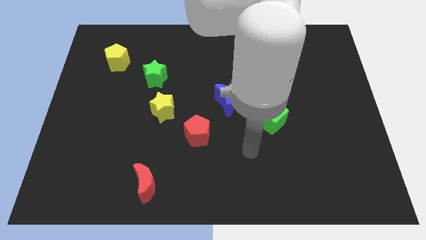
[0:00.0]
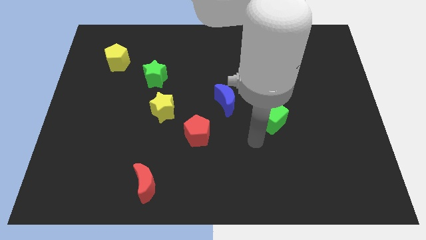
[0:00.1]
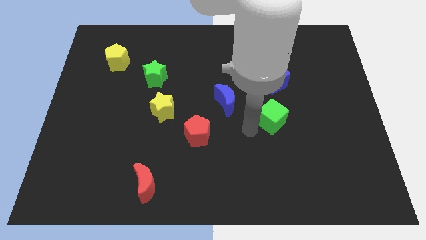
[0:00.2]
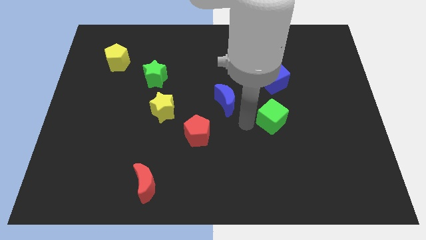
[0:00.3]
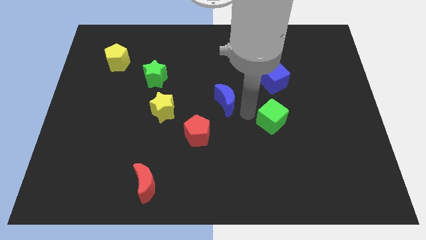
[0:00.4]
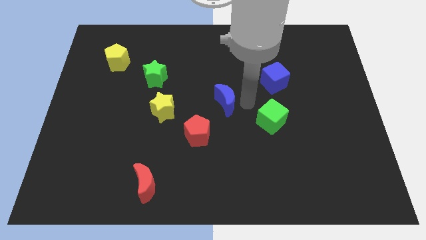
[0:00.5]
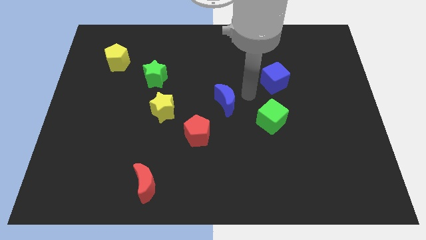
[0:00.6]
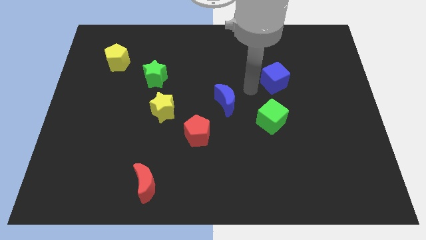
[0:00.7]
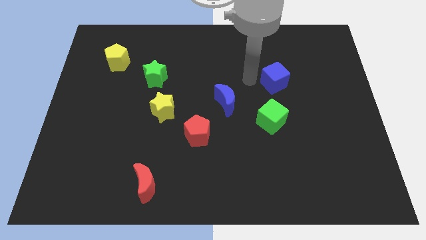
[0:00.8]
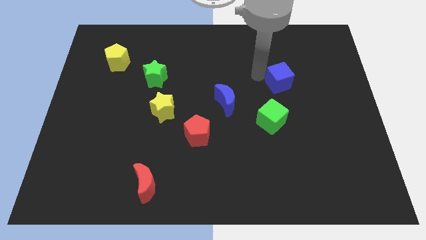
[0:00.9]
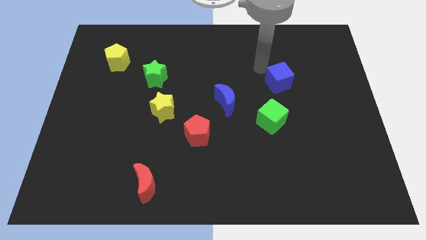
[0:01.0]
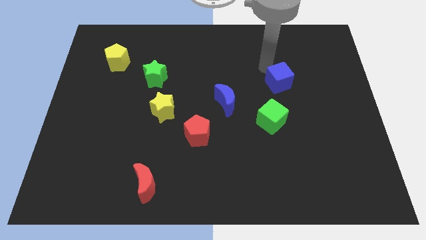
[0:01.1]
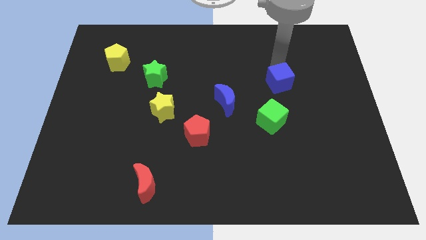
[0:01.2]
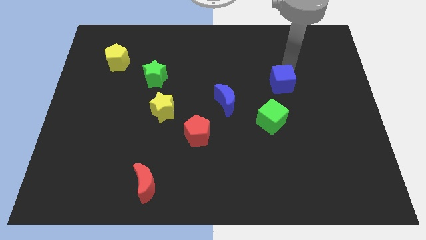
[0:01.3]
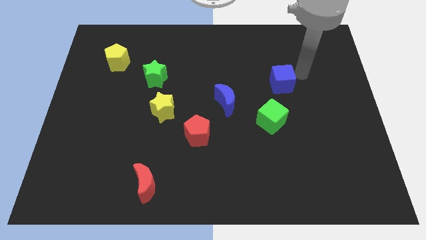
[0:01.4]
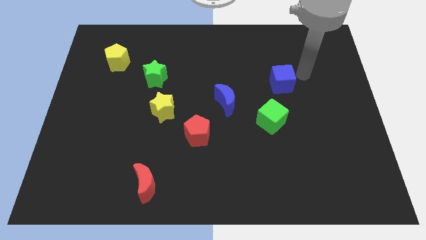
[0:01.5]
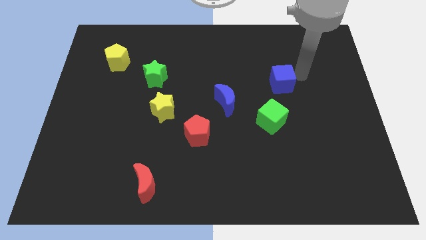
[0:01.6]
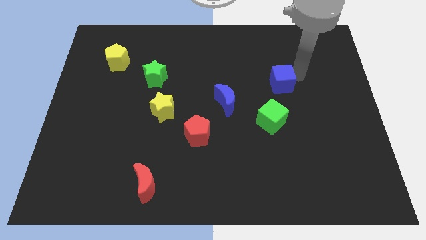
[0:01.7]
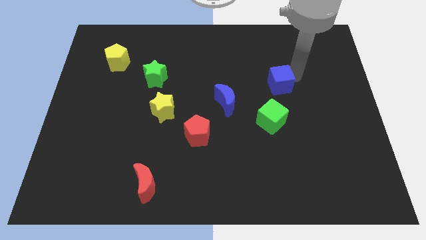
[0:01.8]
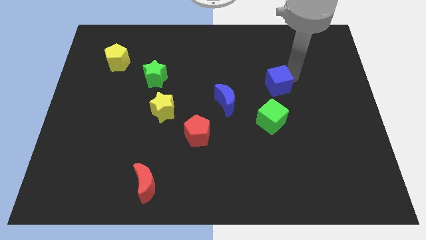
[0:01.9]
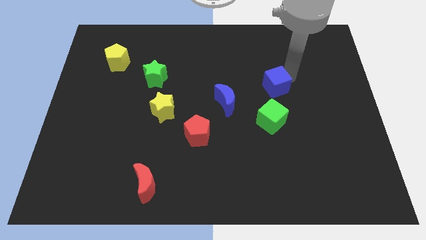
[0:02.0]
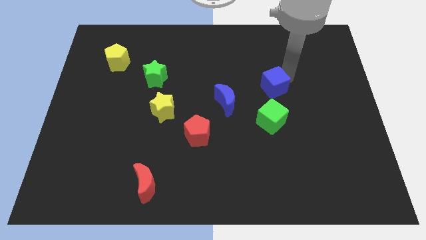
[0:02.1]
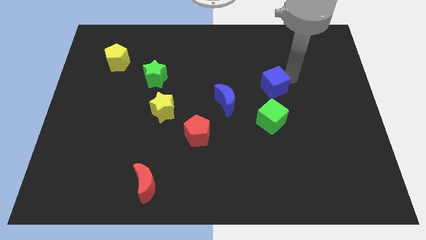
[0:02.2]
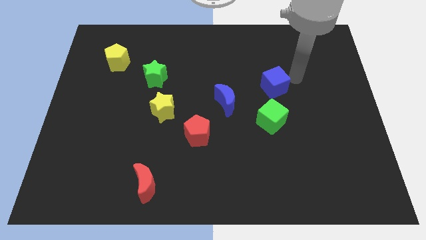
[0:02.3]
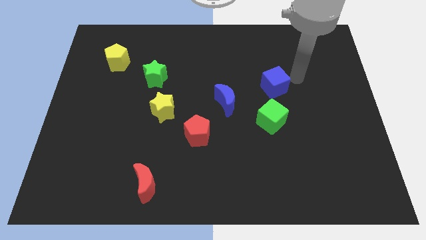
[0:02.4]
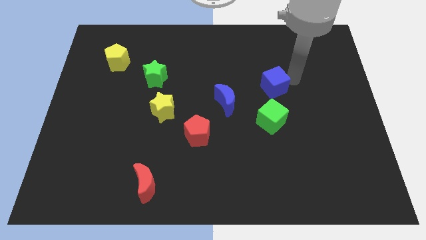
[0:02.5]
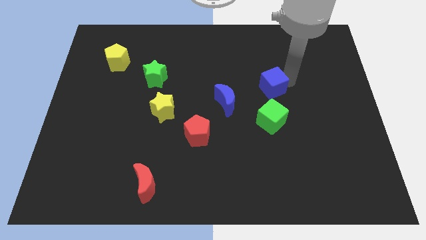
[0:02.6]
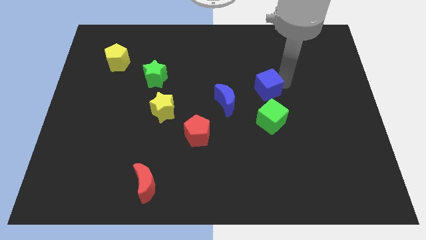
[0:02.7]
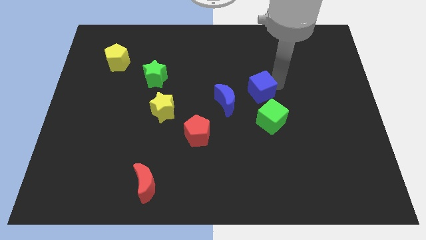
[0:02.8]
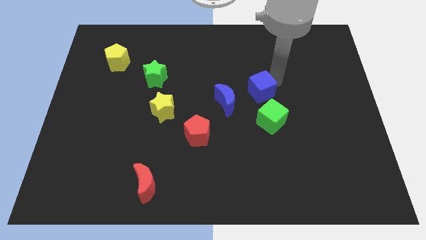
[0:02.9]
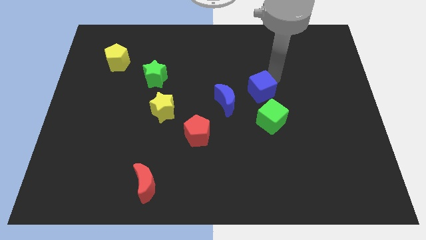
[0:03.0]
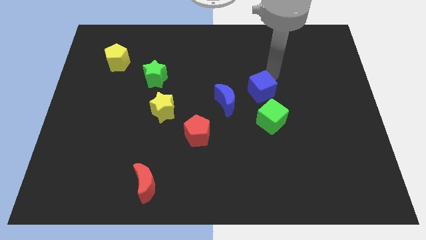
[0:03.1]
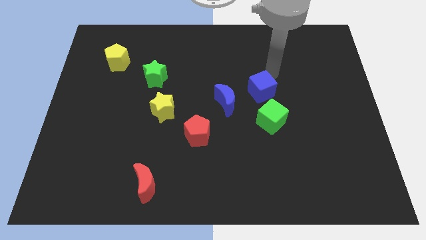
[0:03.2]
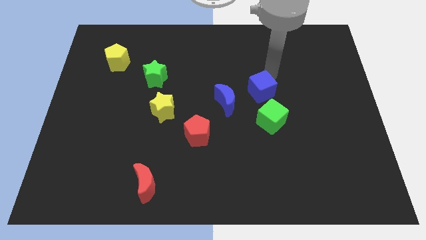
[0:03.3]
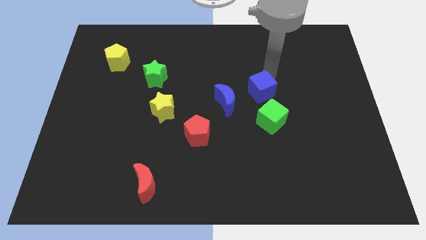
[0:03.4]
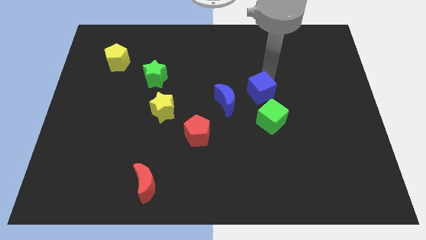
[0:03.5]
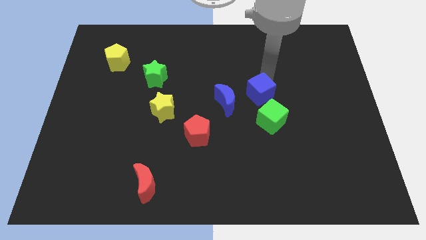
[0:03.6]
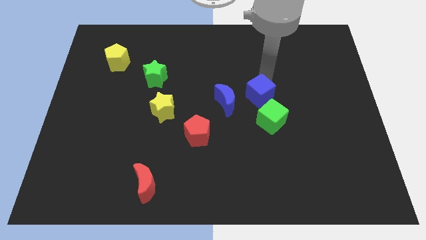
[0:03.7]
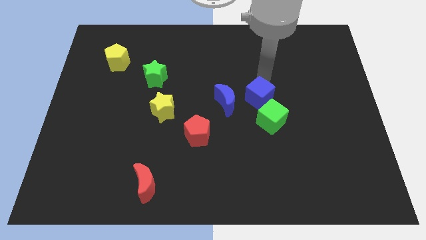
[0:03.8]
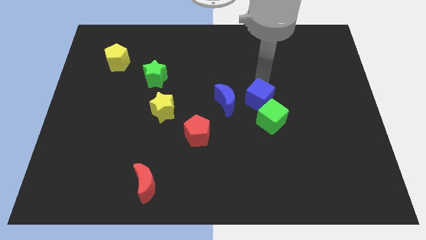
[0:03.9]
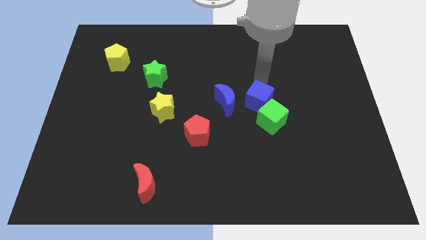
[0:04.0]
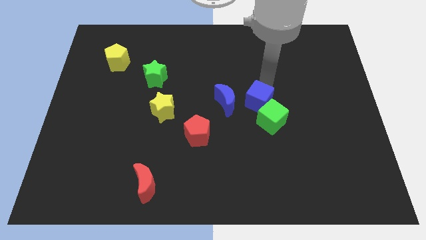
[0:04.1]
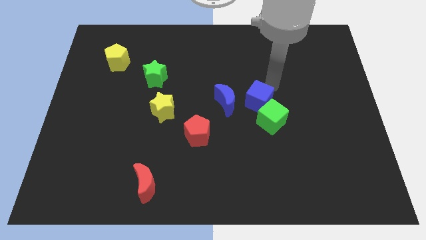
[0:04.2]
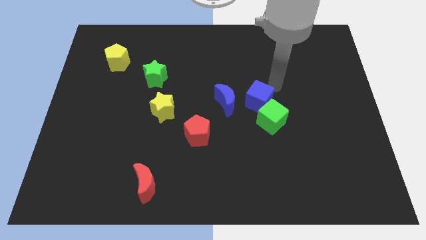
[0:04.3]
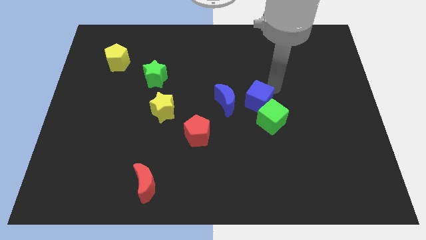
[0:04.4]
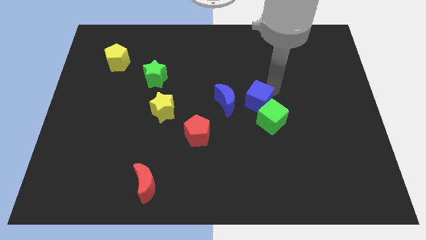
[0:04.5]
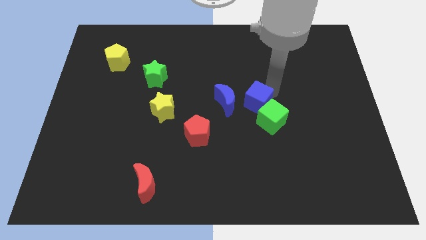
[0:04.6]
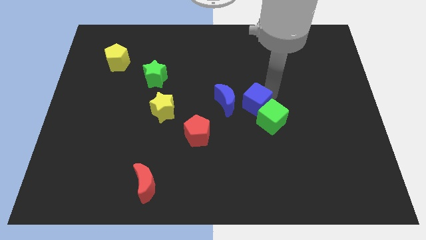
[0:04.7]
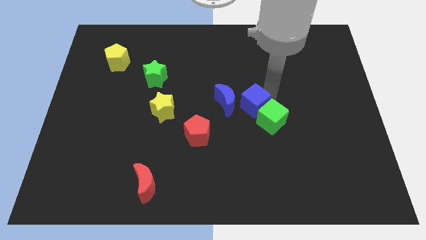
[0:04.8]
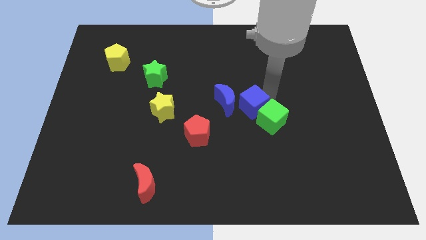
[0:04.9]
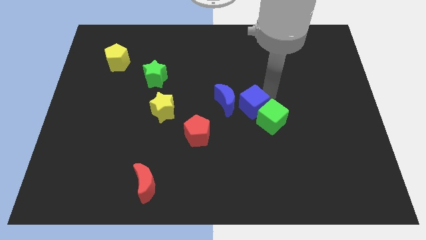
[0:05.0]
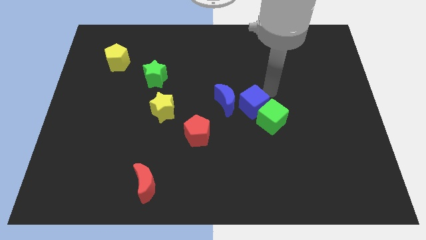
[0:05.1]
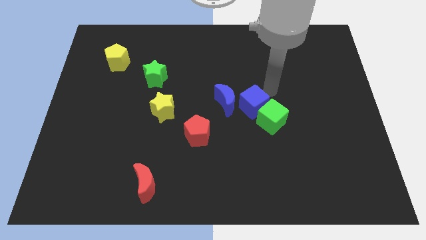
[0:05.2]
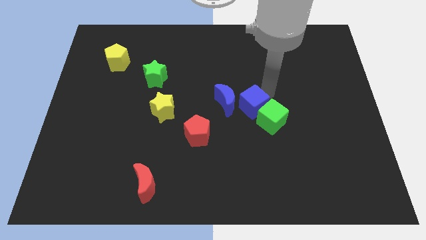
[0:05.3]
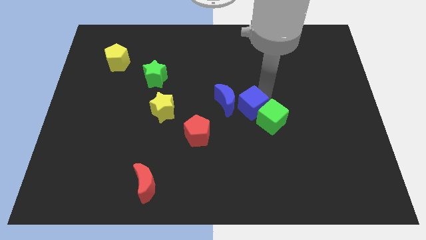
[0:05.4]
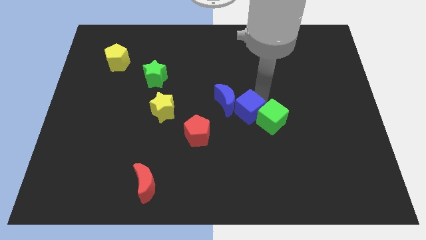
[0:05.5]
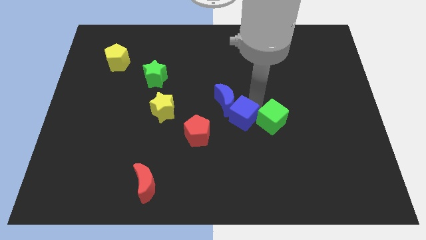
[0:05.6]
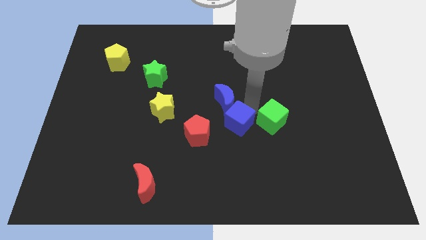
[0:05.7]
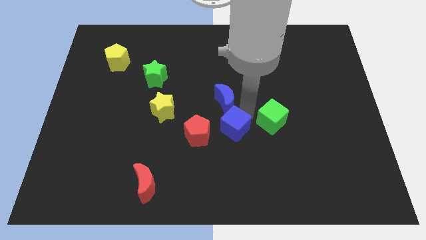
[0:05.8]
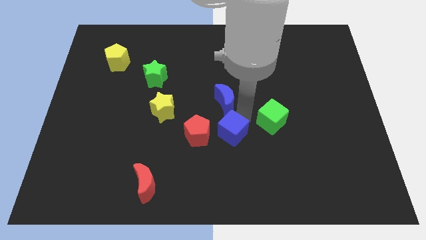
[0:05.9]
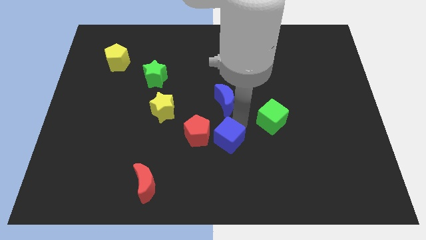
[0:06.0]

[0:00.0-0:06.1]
push the blue cube downwards and left

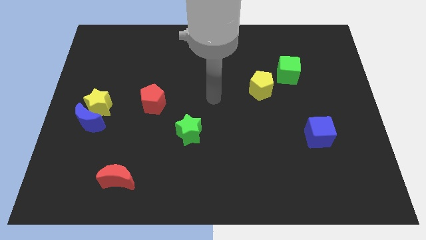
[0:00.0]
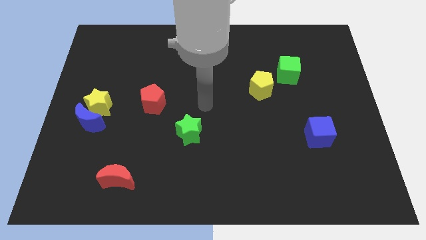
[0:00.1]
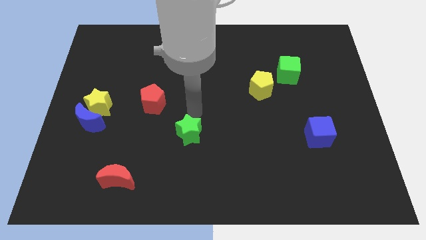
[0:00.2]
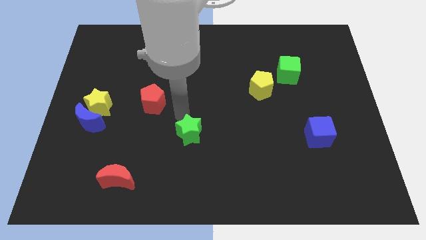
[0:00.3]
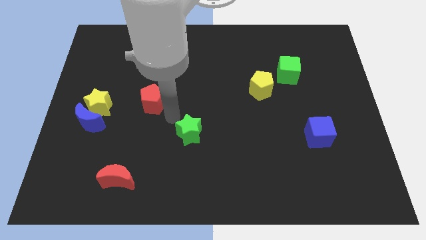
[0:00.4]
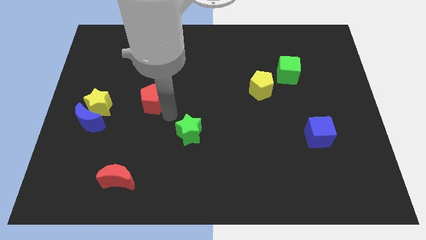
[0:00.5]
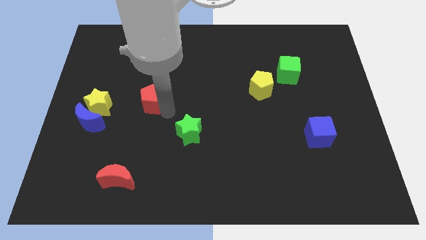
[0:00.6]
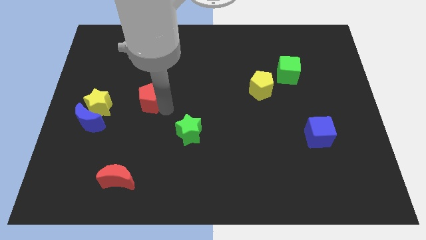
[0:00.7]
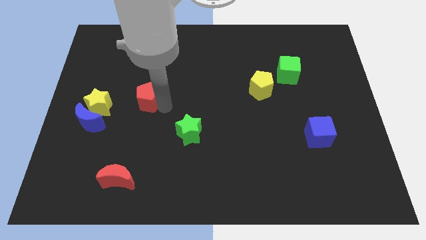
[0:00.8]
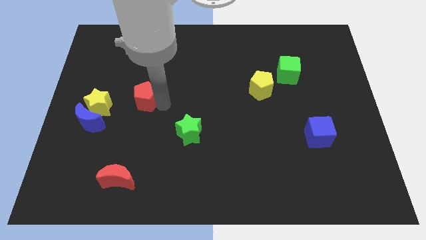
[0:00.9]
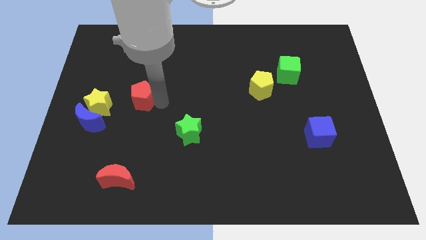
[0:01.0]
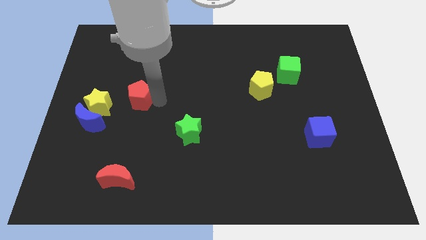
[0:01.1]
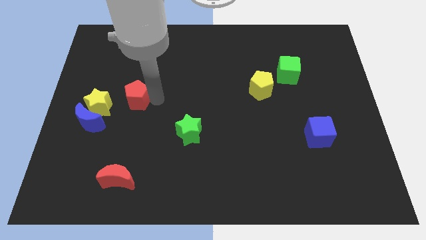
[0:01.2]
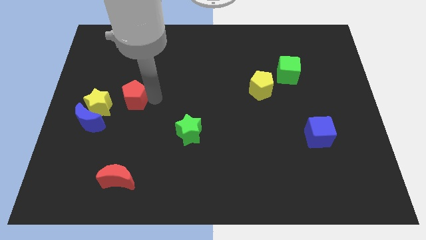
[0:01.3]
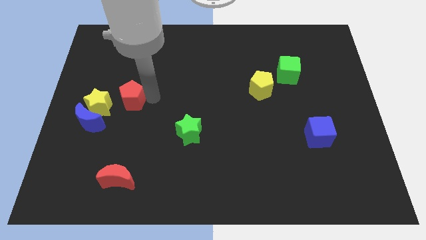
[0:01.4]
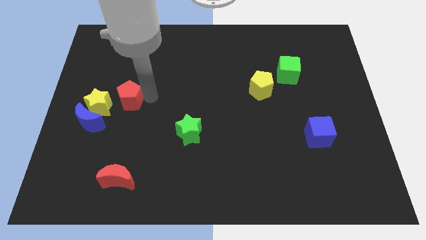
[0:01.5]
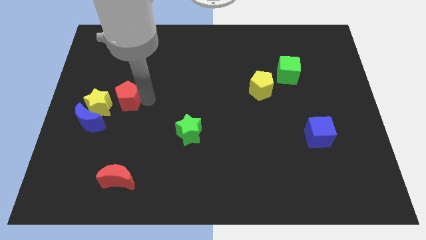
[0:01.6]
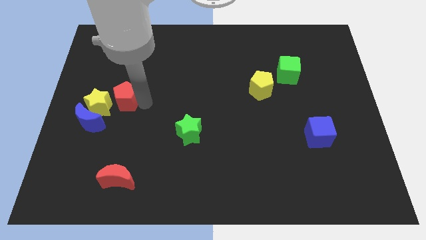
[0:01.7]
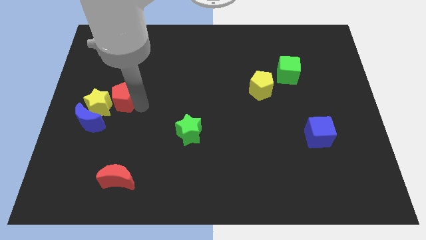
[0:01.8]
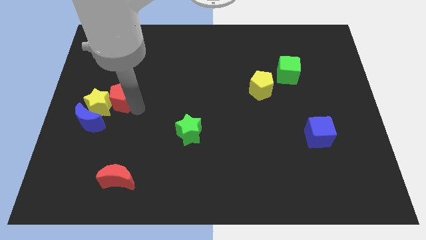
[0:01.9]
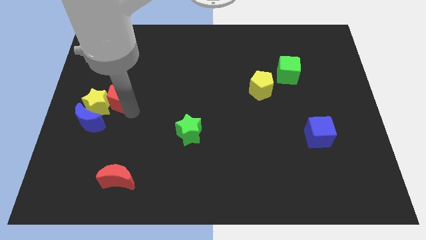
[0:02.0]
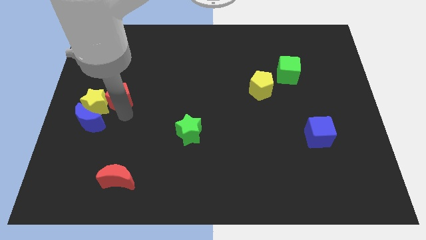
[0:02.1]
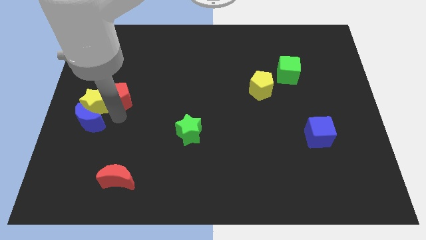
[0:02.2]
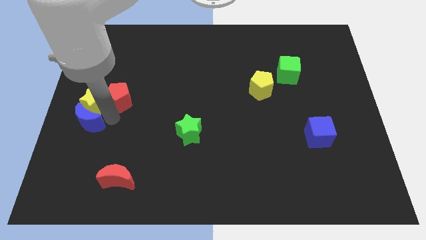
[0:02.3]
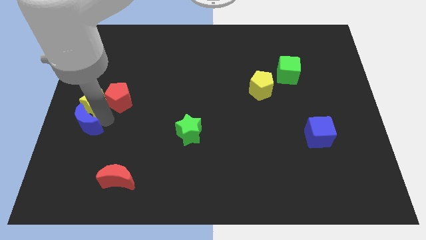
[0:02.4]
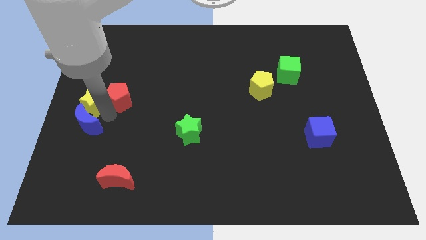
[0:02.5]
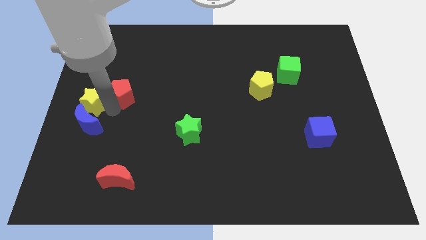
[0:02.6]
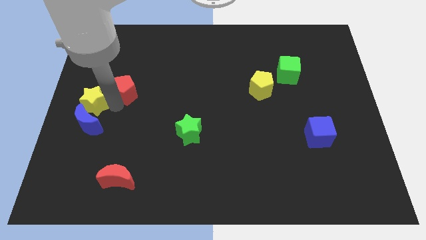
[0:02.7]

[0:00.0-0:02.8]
slide the red pentagon a little upwards and then left
